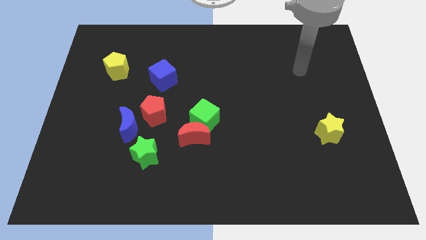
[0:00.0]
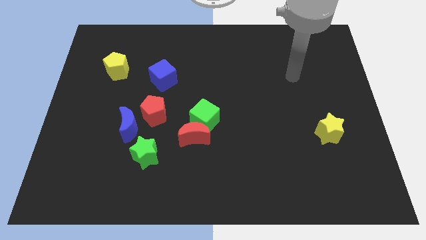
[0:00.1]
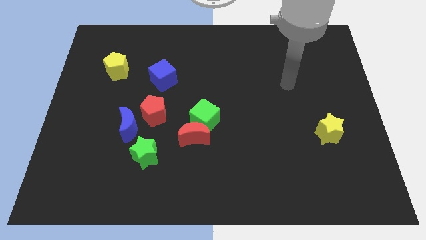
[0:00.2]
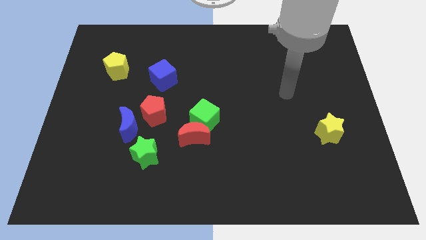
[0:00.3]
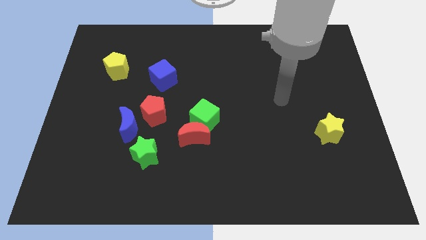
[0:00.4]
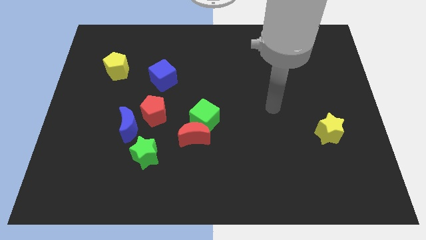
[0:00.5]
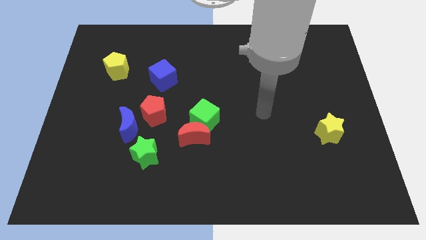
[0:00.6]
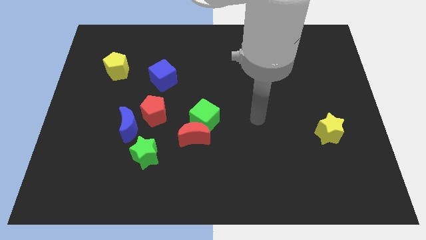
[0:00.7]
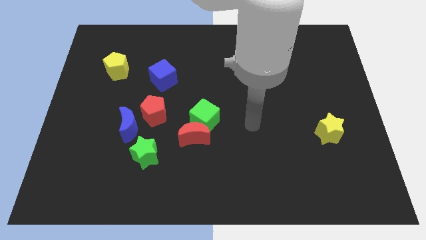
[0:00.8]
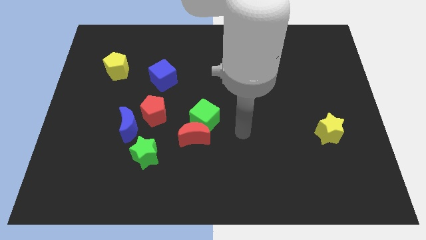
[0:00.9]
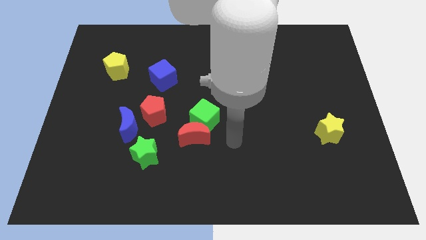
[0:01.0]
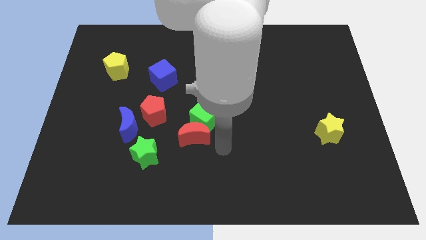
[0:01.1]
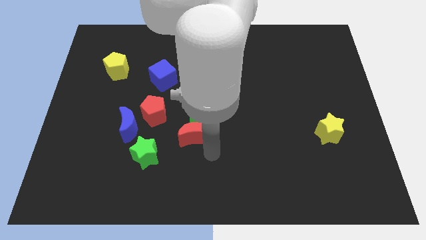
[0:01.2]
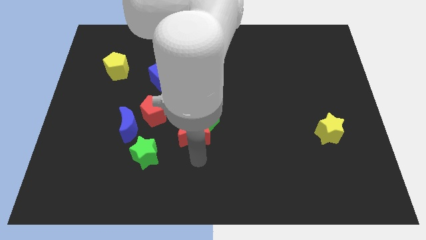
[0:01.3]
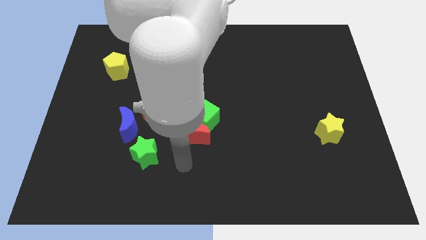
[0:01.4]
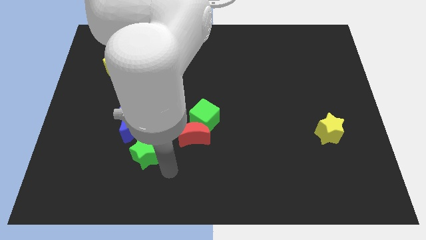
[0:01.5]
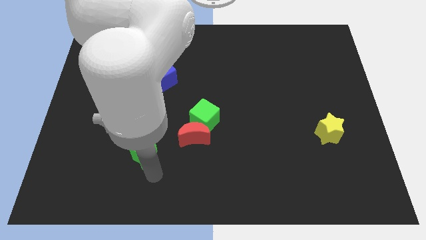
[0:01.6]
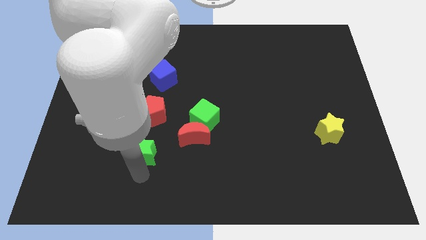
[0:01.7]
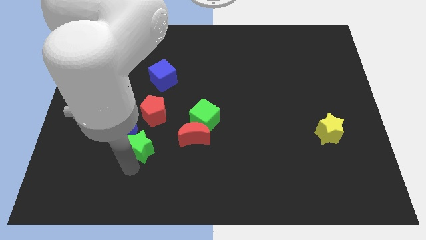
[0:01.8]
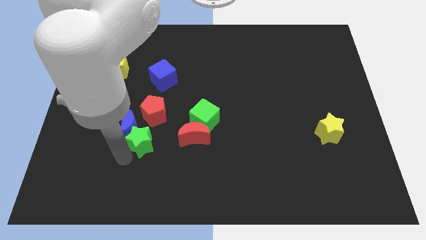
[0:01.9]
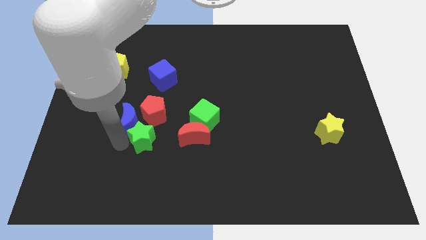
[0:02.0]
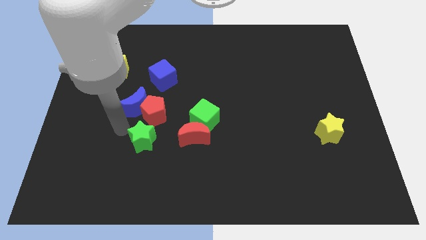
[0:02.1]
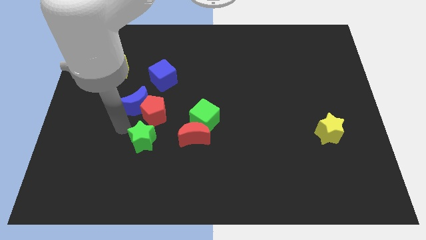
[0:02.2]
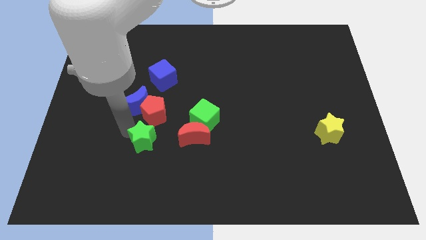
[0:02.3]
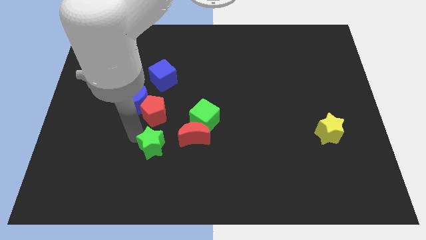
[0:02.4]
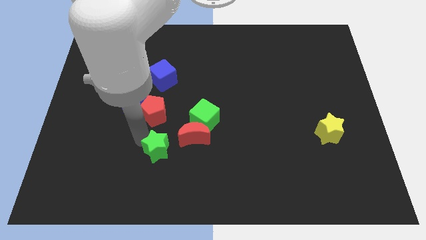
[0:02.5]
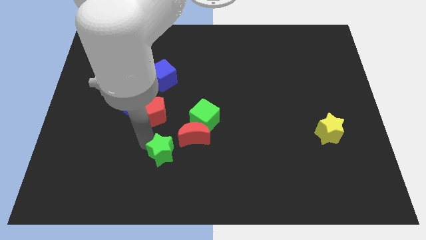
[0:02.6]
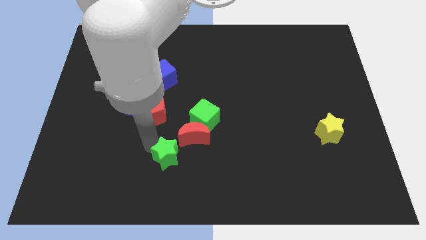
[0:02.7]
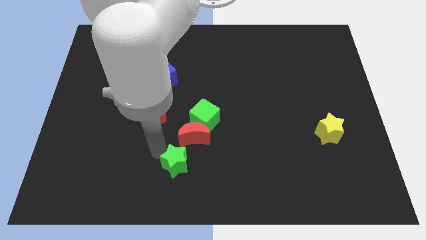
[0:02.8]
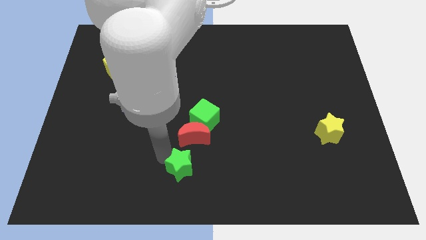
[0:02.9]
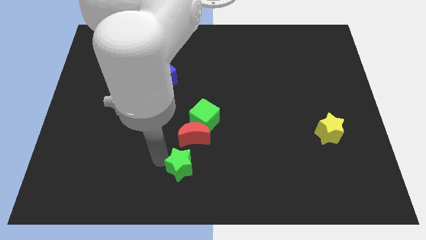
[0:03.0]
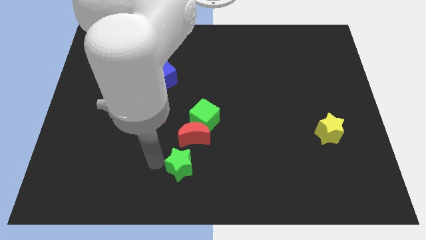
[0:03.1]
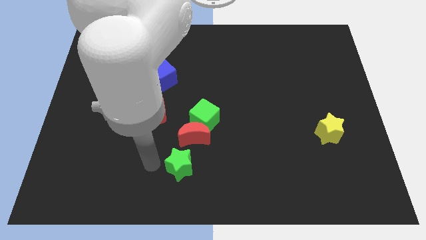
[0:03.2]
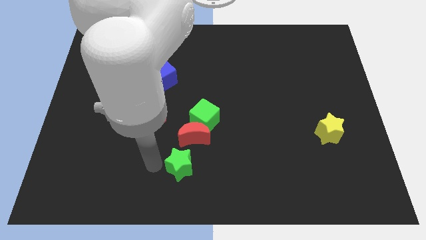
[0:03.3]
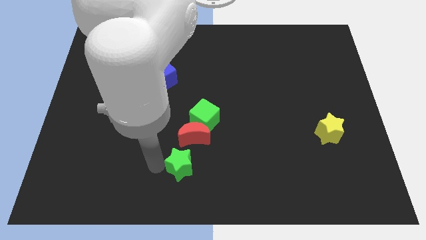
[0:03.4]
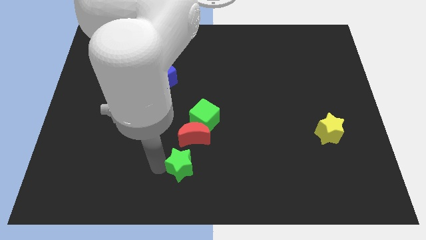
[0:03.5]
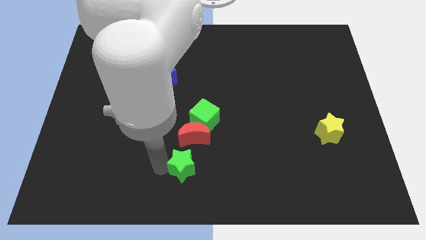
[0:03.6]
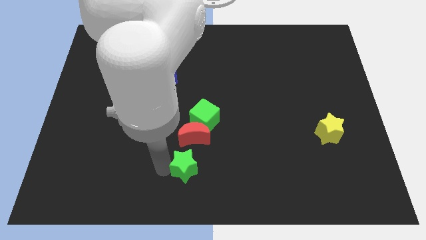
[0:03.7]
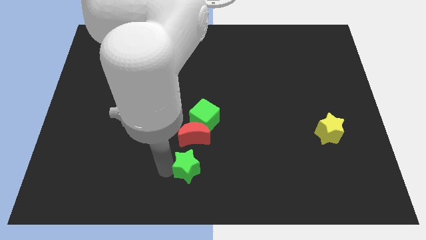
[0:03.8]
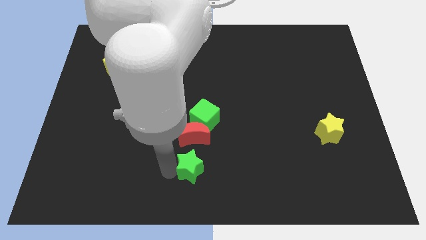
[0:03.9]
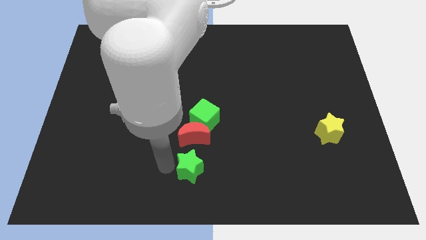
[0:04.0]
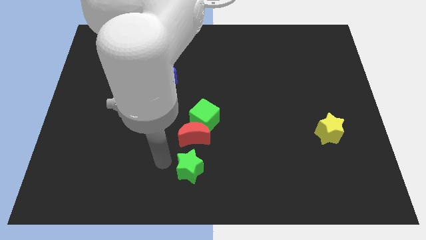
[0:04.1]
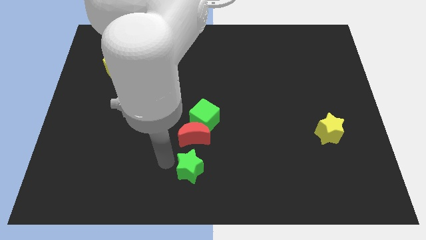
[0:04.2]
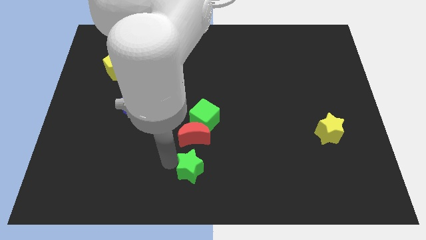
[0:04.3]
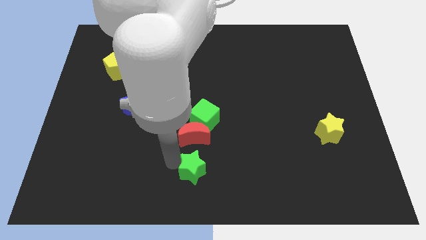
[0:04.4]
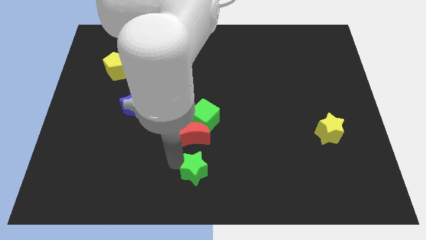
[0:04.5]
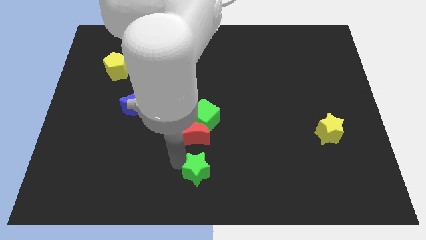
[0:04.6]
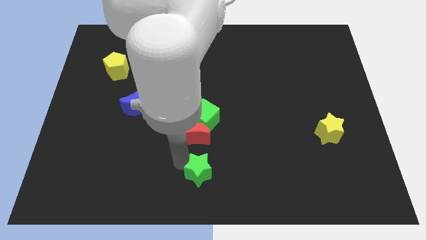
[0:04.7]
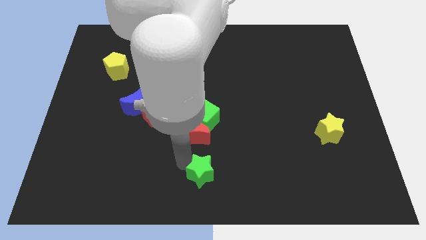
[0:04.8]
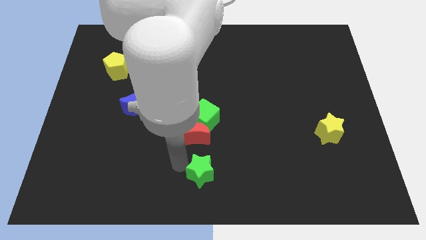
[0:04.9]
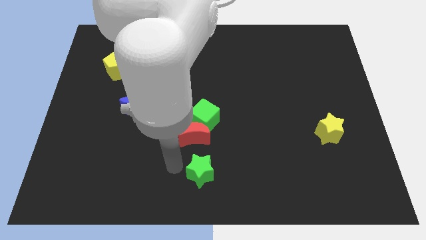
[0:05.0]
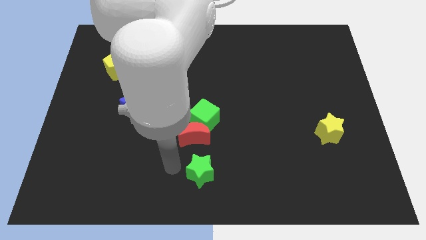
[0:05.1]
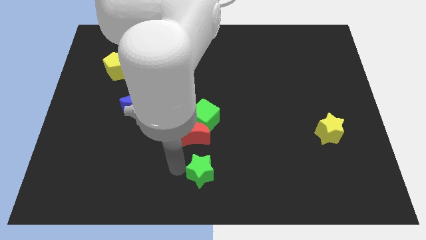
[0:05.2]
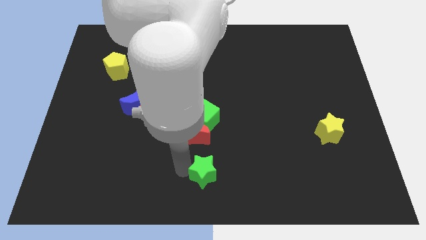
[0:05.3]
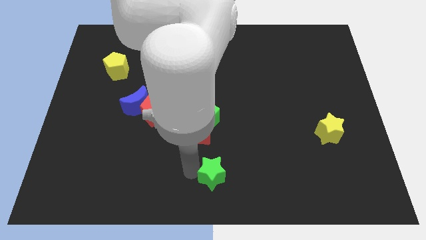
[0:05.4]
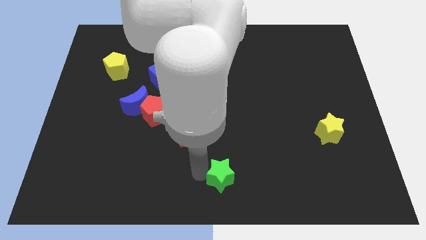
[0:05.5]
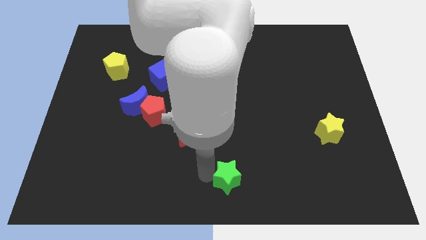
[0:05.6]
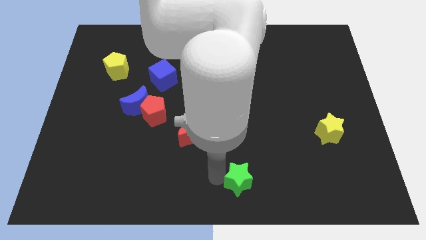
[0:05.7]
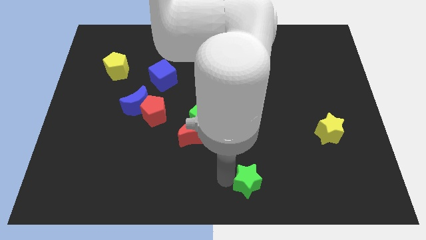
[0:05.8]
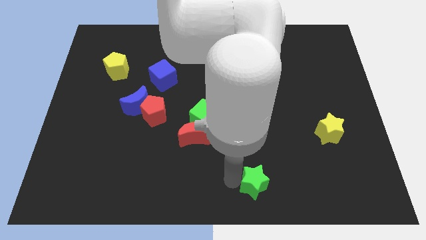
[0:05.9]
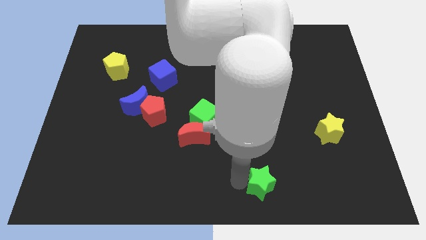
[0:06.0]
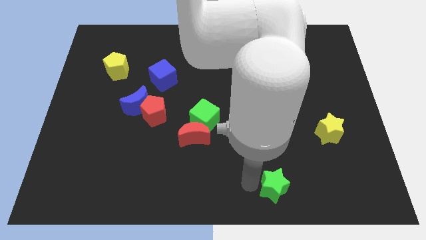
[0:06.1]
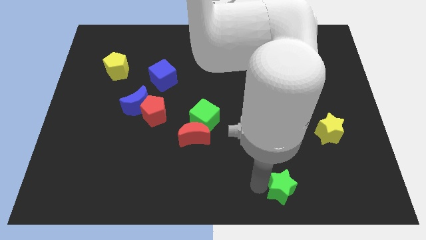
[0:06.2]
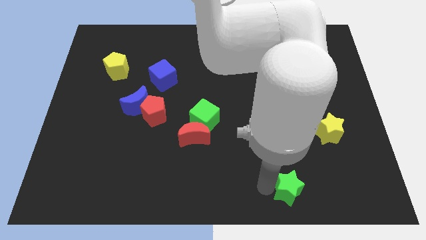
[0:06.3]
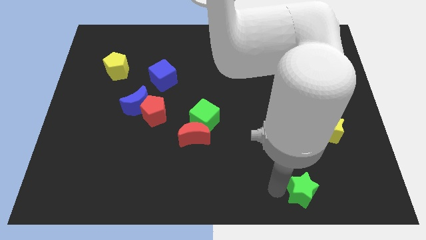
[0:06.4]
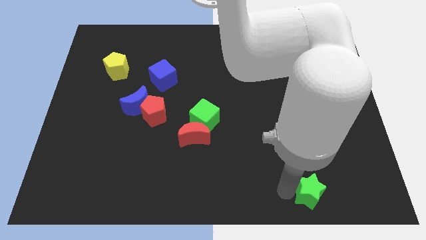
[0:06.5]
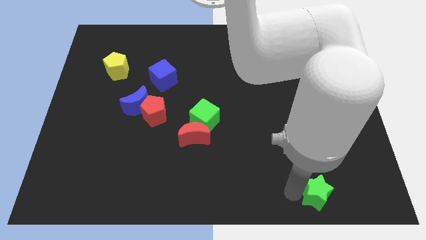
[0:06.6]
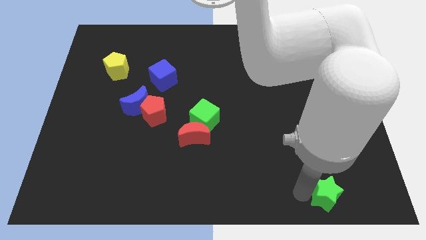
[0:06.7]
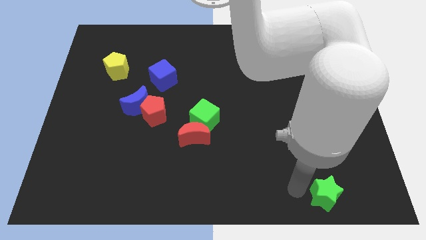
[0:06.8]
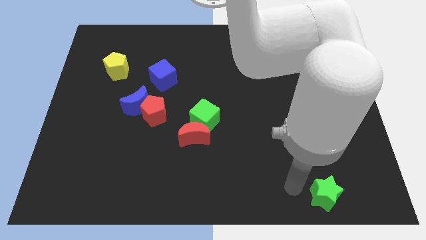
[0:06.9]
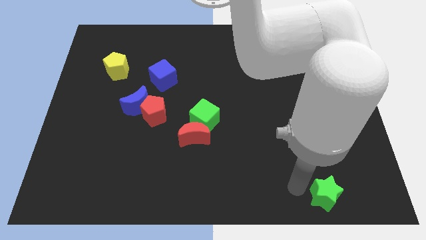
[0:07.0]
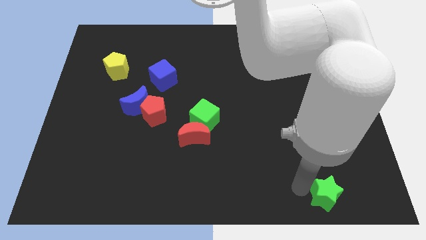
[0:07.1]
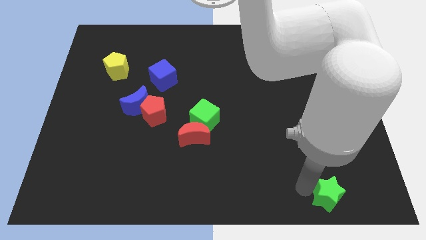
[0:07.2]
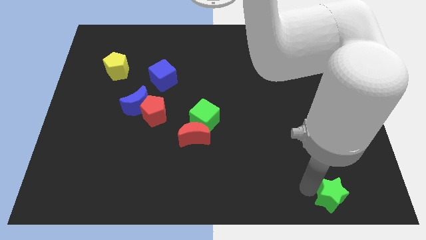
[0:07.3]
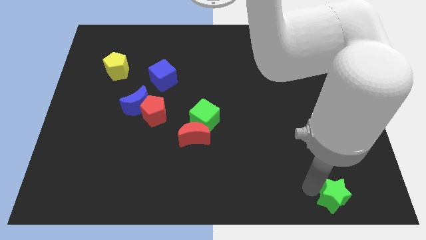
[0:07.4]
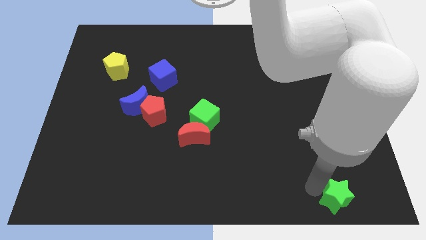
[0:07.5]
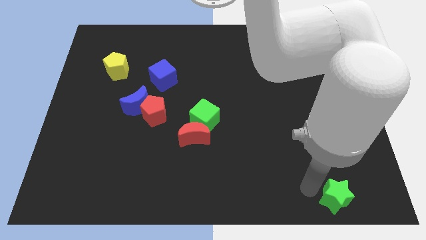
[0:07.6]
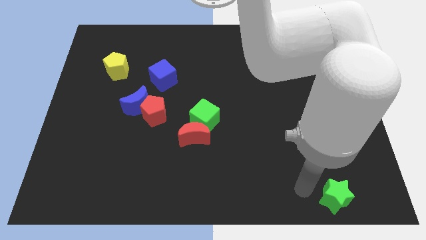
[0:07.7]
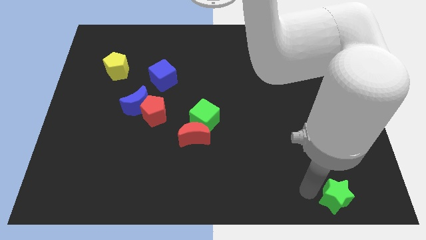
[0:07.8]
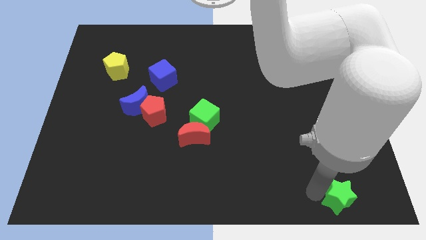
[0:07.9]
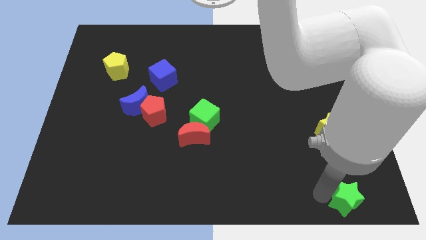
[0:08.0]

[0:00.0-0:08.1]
put the green star to the bottom right
